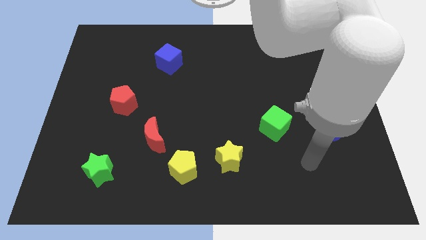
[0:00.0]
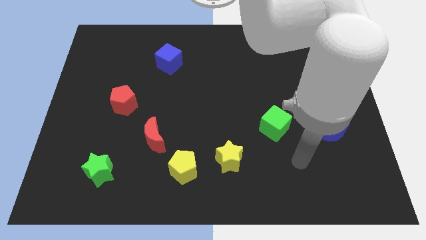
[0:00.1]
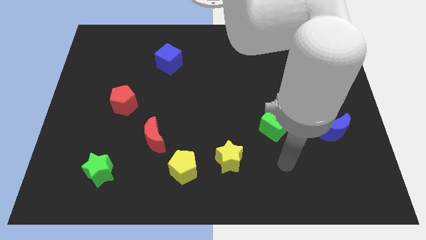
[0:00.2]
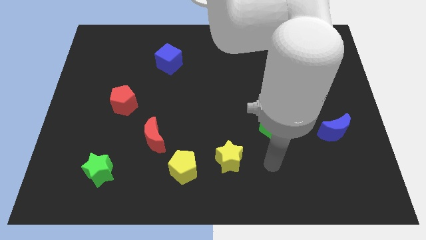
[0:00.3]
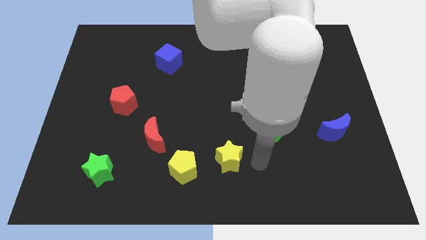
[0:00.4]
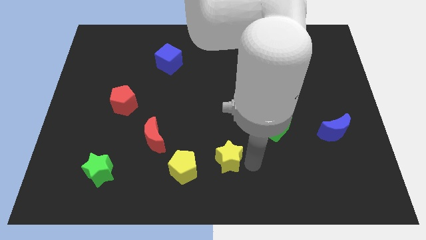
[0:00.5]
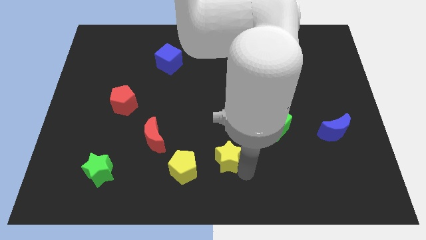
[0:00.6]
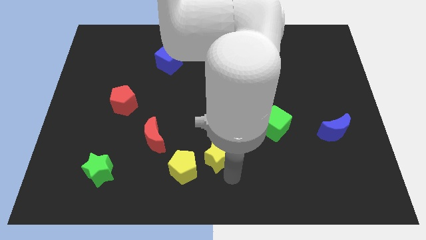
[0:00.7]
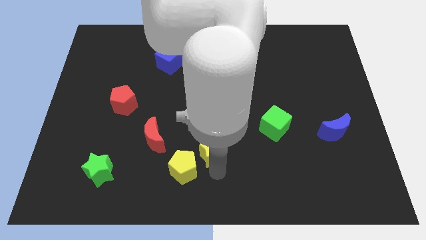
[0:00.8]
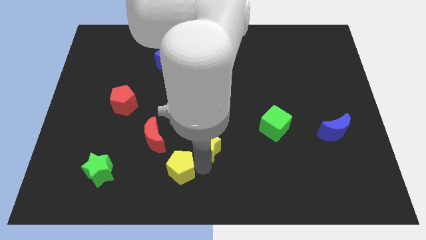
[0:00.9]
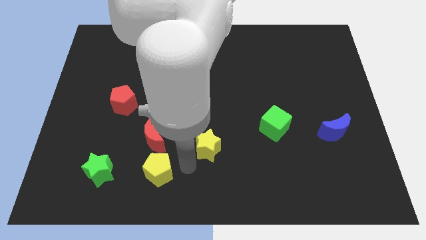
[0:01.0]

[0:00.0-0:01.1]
separate the yellow star from the yellow pentagon

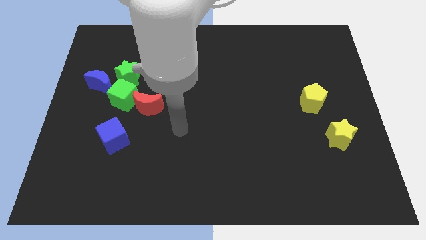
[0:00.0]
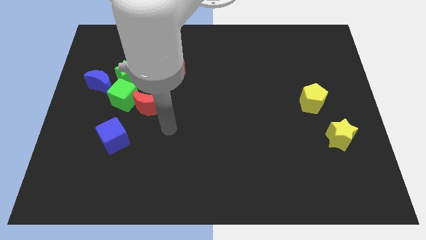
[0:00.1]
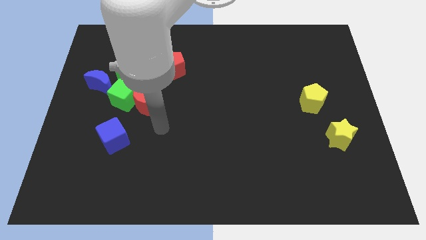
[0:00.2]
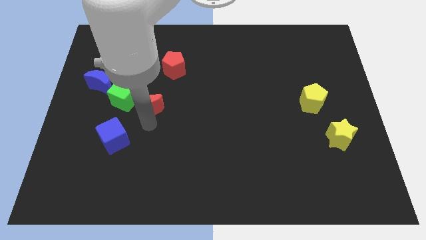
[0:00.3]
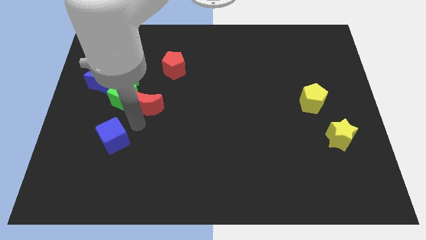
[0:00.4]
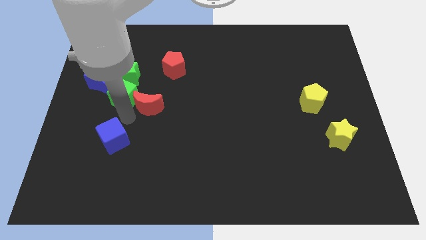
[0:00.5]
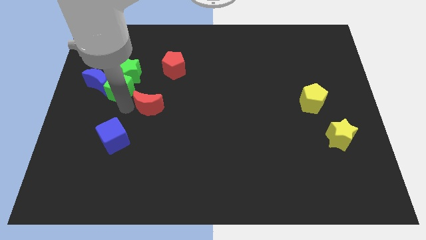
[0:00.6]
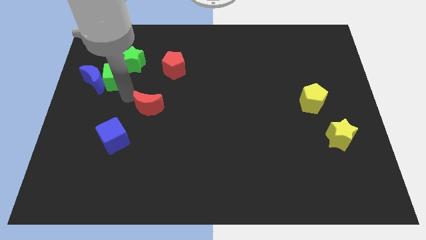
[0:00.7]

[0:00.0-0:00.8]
pull the red moon apart from the green cube

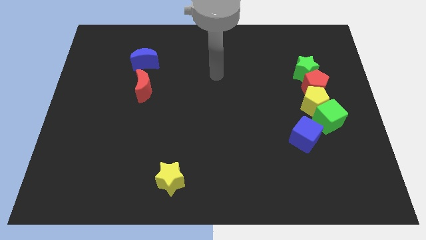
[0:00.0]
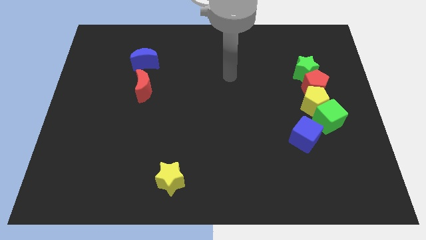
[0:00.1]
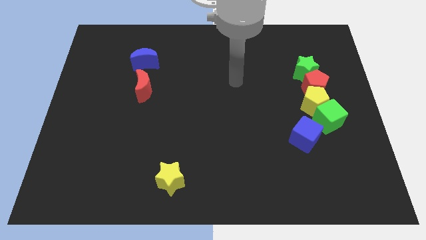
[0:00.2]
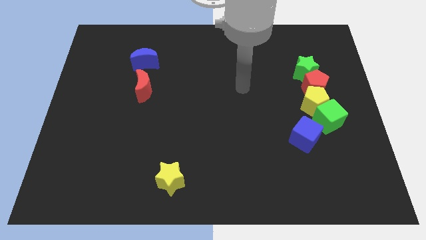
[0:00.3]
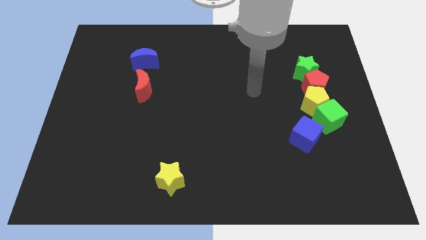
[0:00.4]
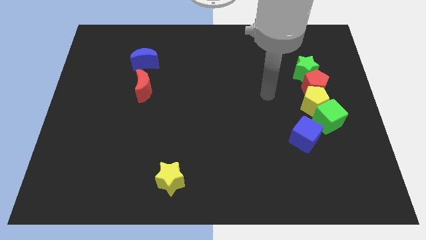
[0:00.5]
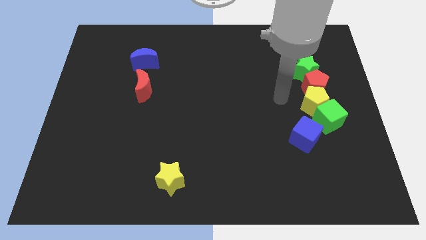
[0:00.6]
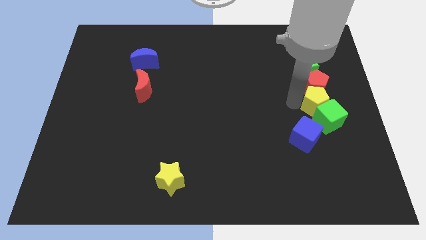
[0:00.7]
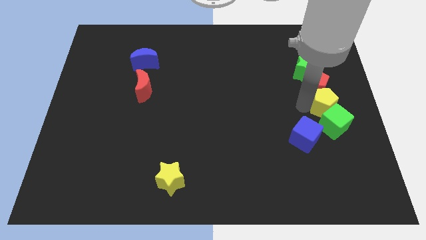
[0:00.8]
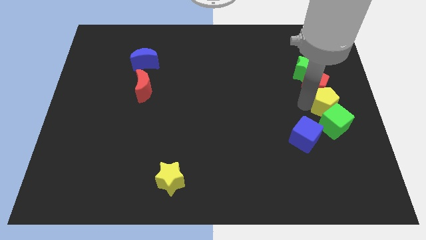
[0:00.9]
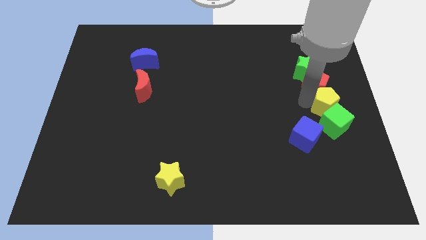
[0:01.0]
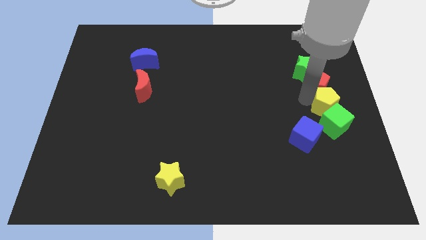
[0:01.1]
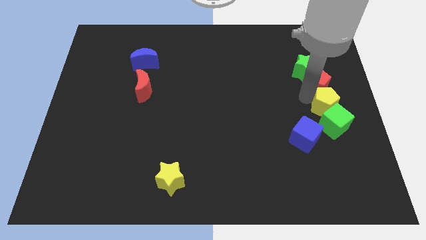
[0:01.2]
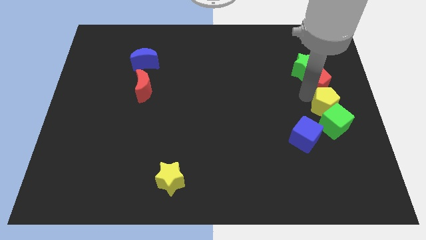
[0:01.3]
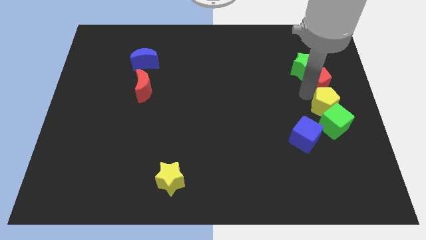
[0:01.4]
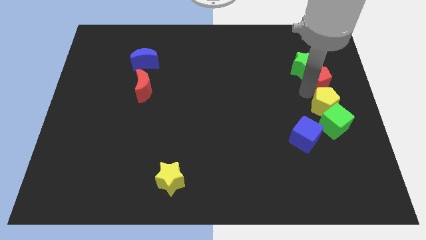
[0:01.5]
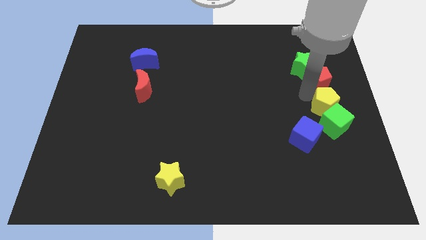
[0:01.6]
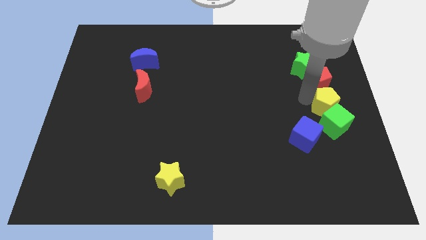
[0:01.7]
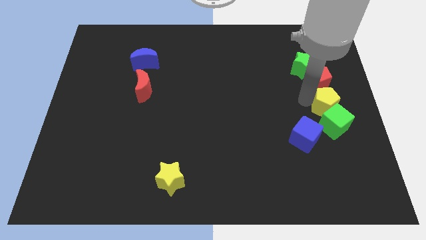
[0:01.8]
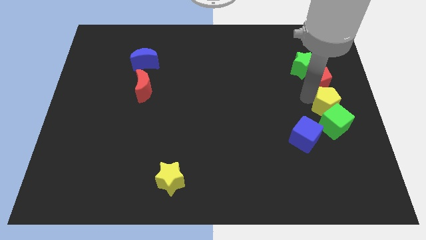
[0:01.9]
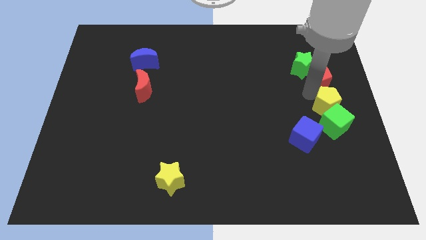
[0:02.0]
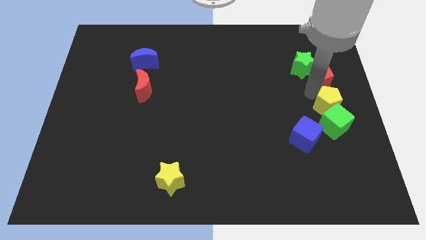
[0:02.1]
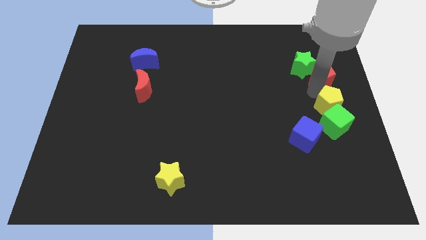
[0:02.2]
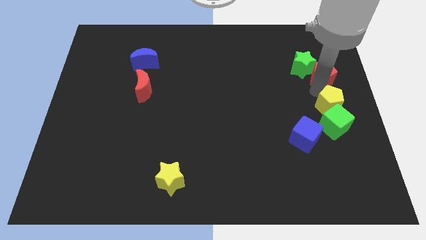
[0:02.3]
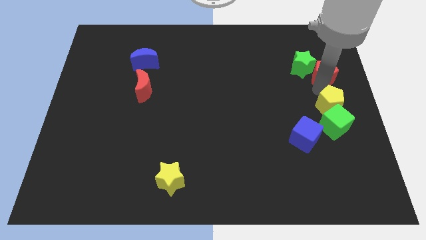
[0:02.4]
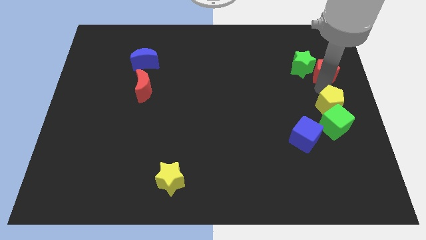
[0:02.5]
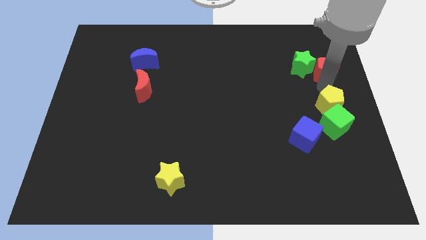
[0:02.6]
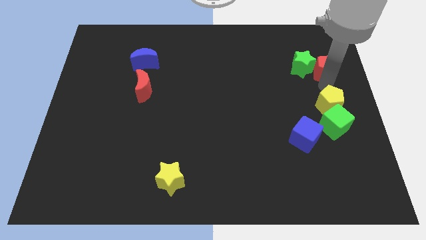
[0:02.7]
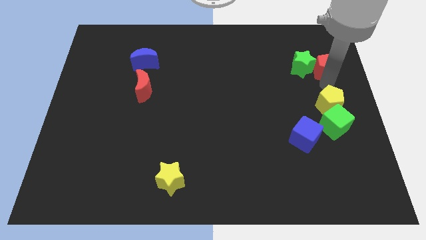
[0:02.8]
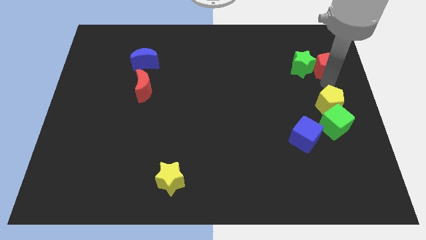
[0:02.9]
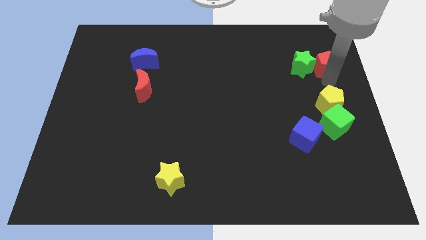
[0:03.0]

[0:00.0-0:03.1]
move the red pentagon away from the group of blocks

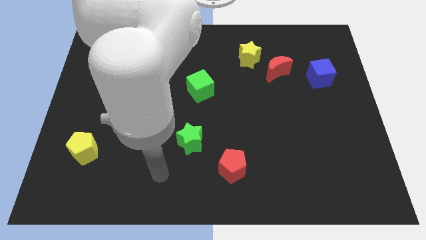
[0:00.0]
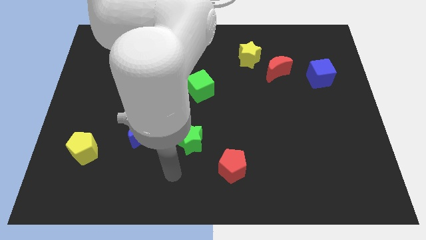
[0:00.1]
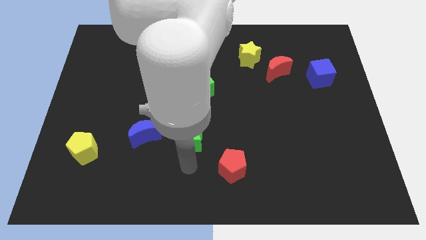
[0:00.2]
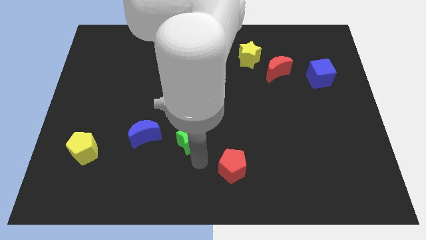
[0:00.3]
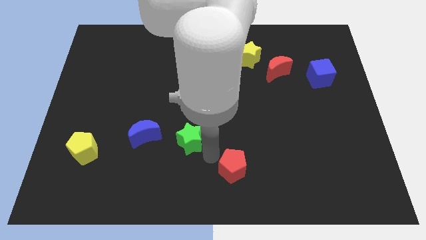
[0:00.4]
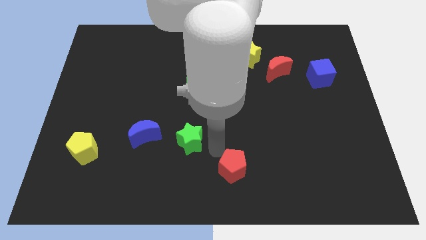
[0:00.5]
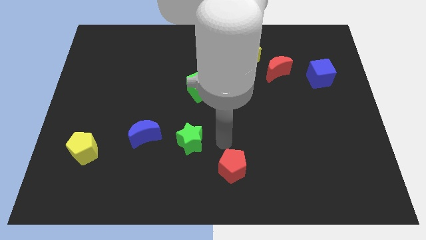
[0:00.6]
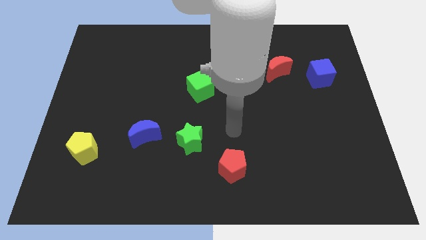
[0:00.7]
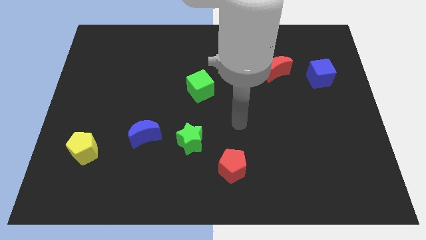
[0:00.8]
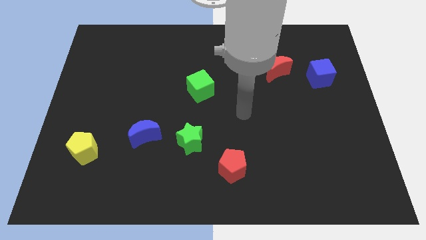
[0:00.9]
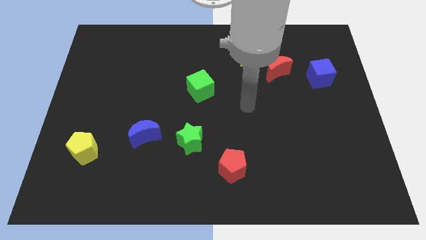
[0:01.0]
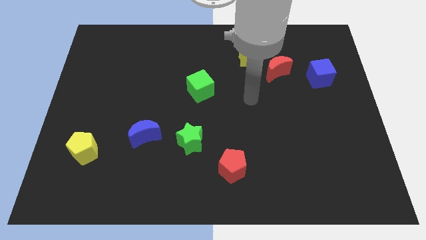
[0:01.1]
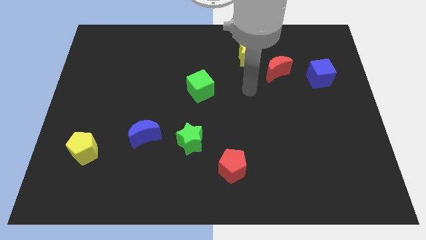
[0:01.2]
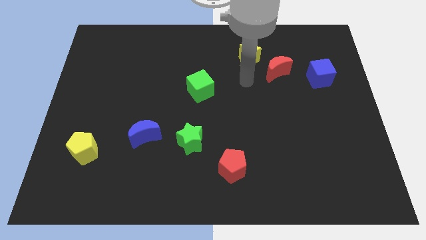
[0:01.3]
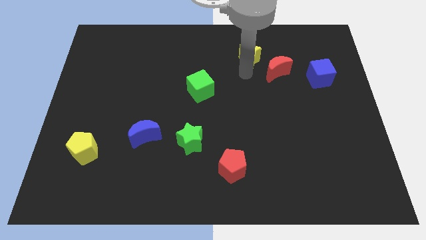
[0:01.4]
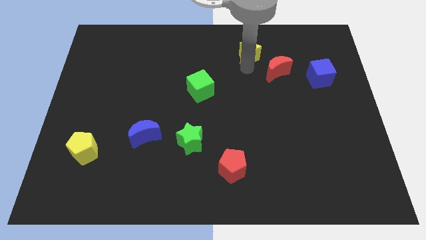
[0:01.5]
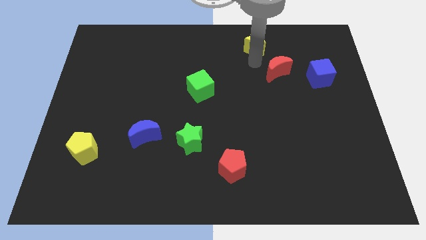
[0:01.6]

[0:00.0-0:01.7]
pull the red moon apart from the yellow star

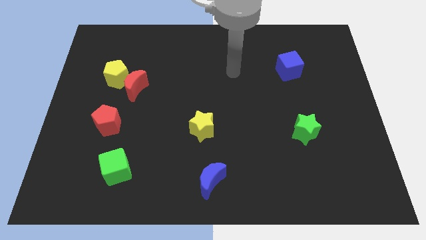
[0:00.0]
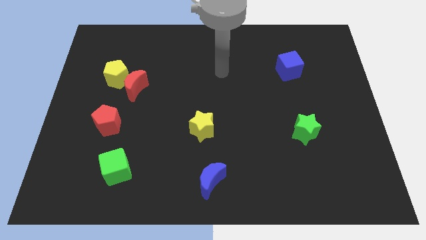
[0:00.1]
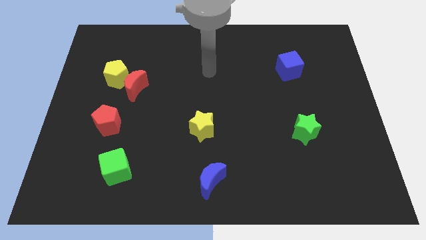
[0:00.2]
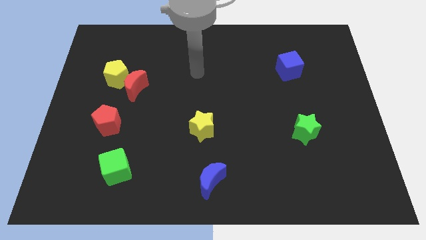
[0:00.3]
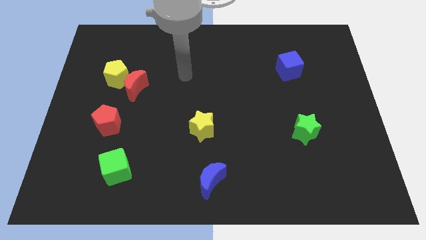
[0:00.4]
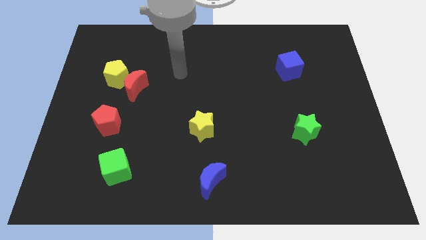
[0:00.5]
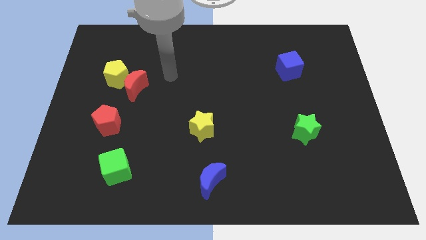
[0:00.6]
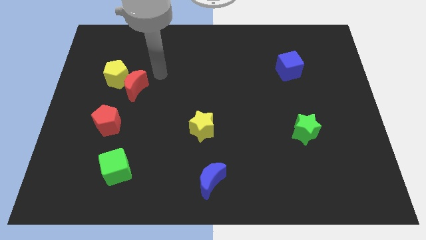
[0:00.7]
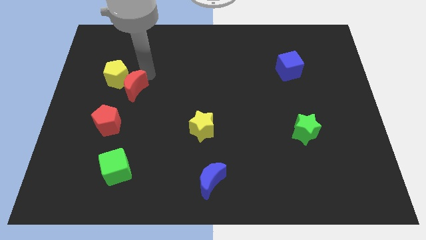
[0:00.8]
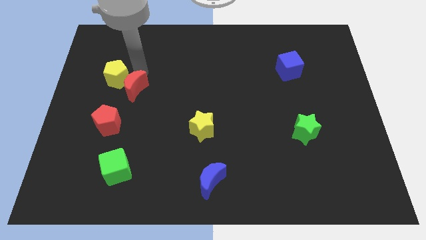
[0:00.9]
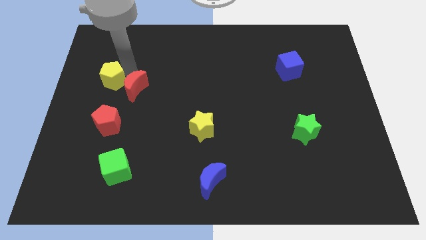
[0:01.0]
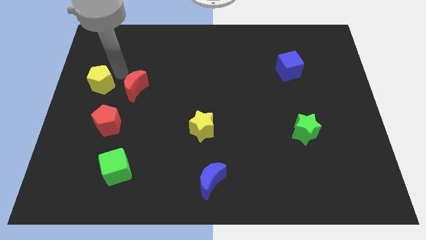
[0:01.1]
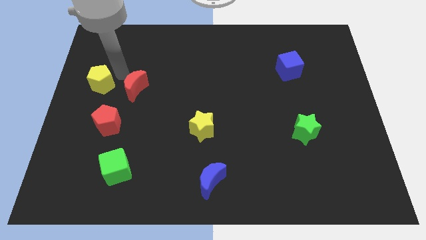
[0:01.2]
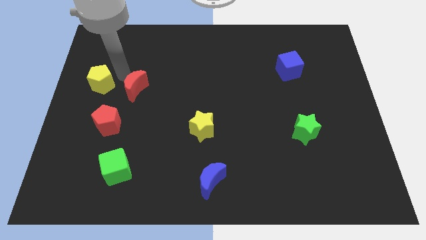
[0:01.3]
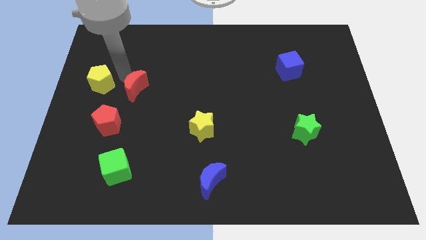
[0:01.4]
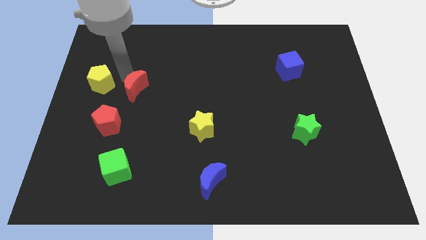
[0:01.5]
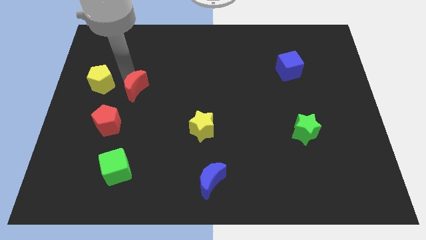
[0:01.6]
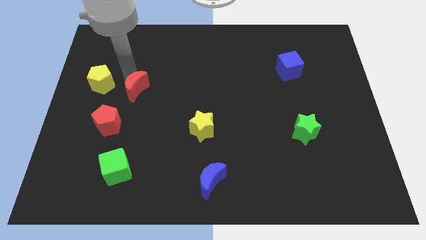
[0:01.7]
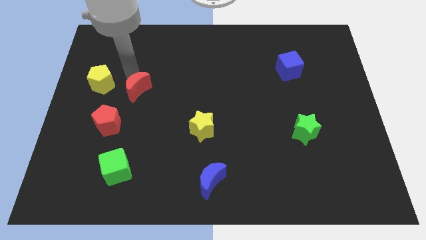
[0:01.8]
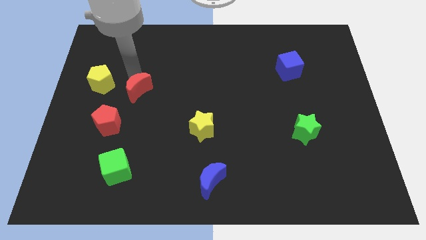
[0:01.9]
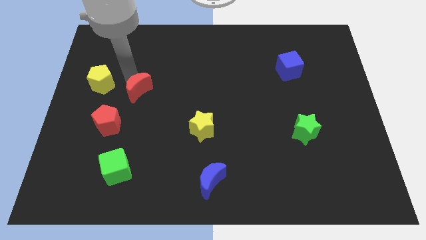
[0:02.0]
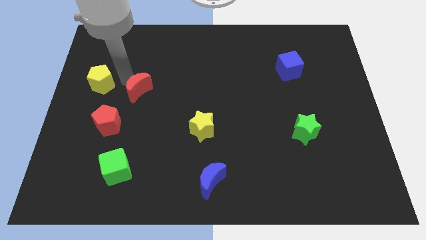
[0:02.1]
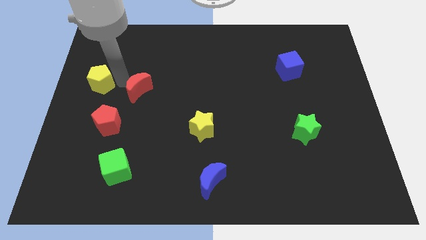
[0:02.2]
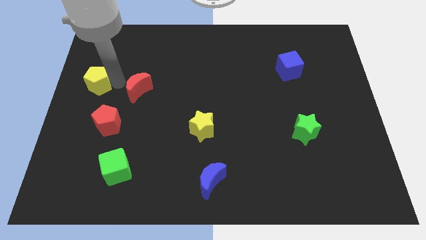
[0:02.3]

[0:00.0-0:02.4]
separate the red moon from the yellow pentagon

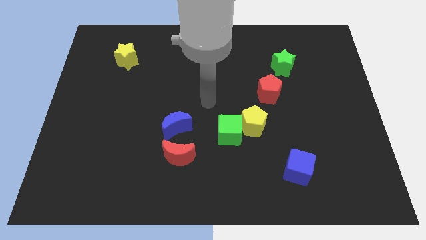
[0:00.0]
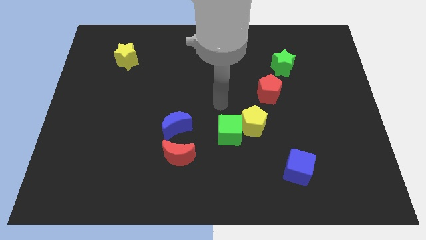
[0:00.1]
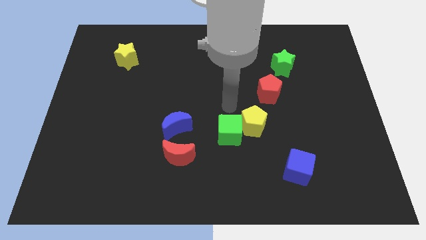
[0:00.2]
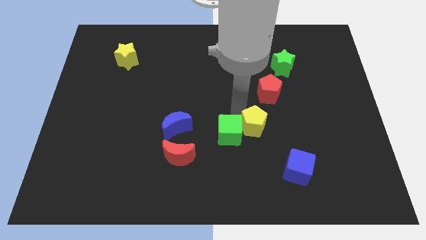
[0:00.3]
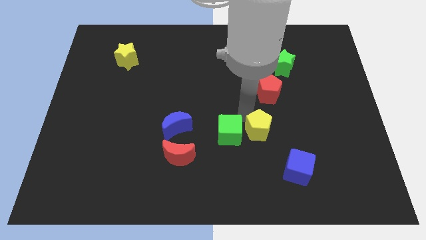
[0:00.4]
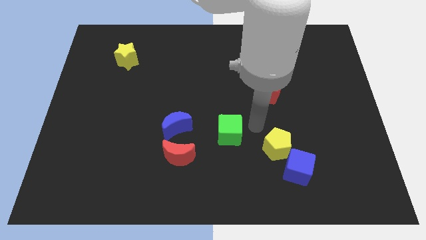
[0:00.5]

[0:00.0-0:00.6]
pull the green cube apart from the yellow pentagon
